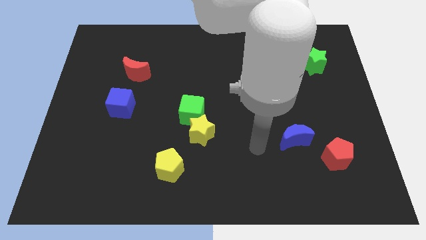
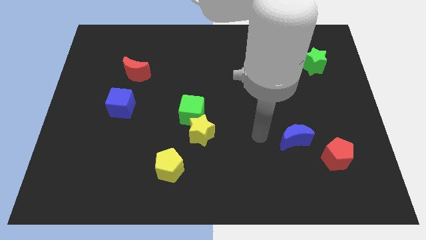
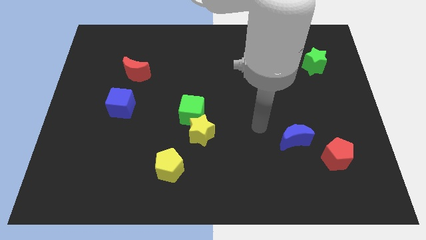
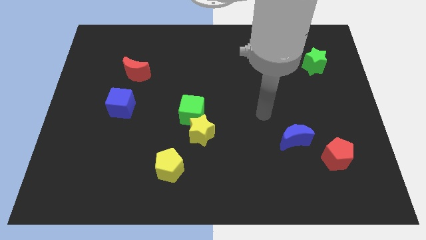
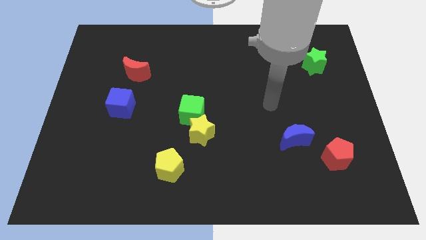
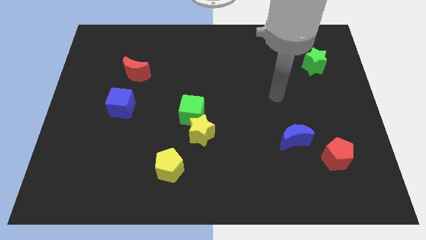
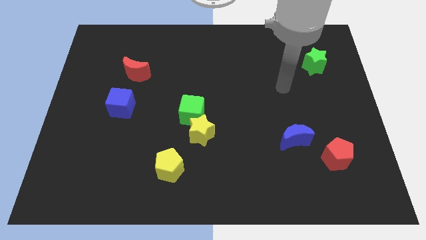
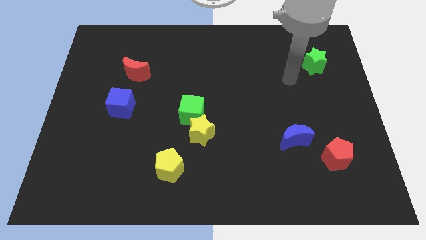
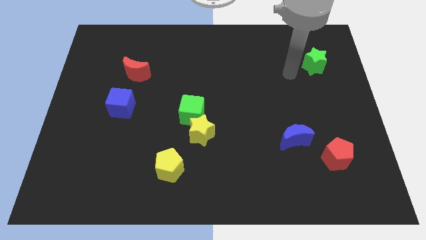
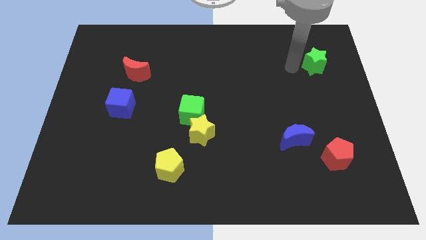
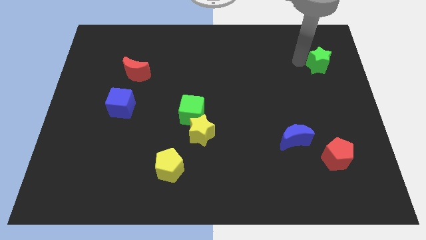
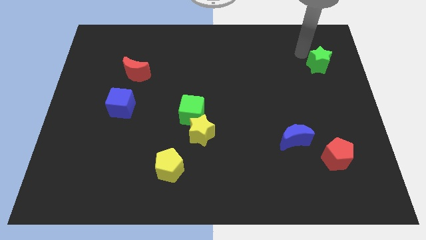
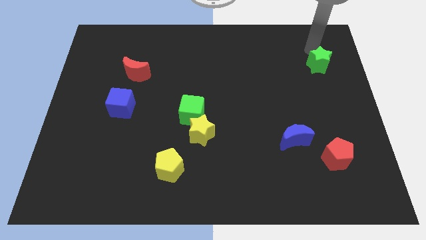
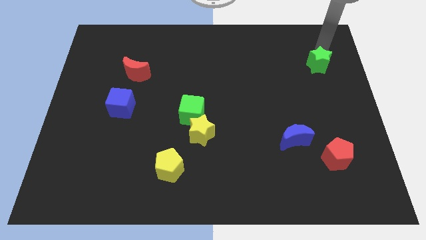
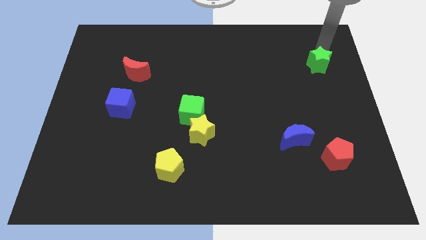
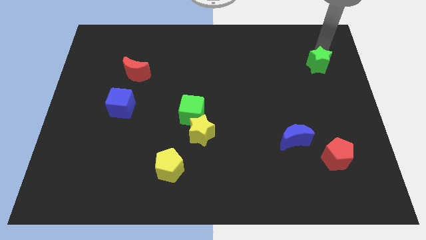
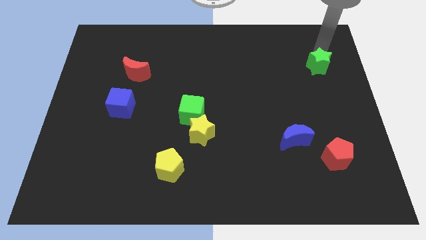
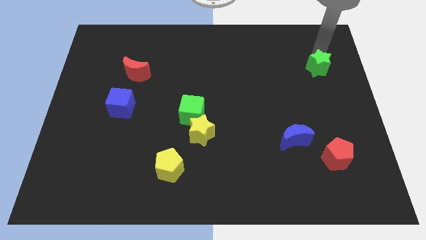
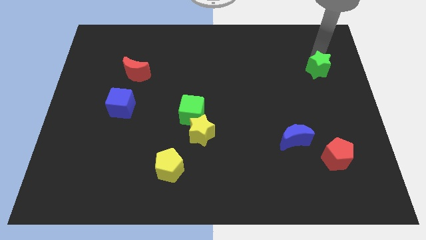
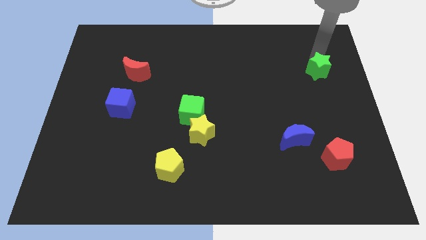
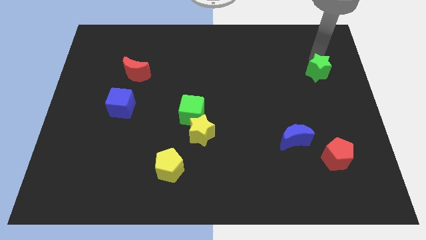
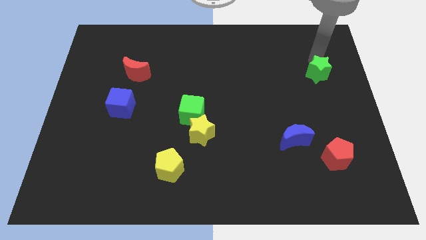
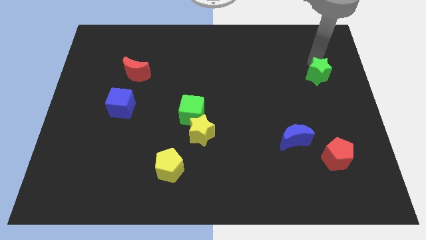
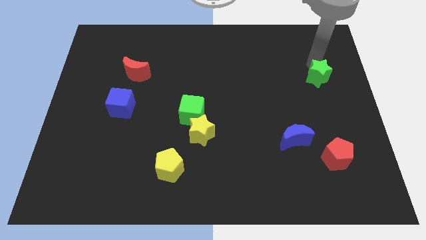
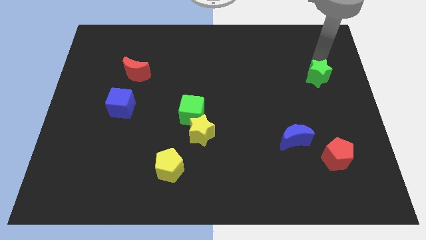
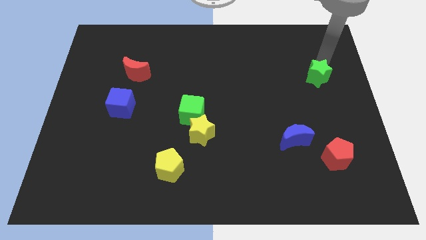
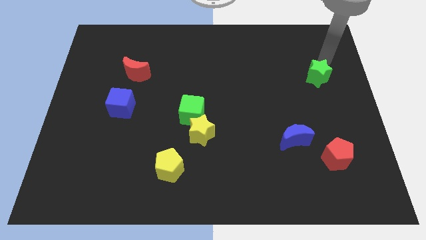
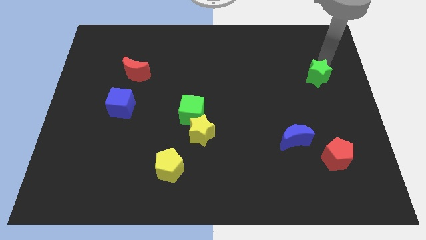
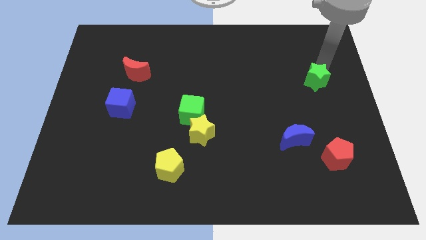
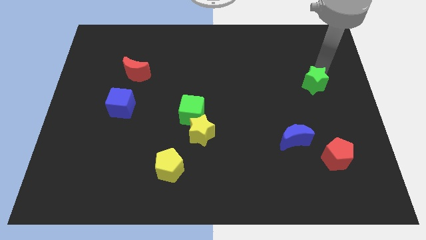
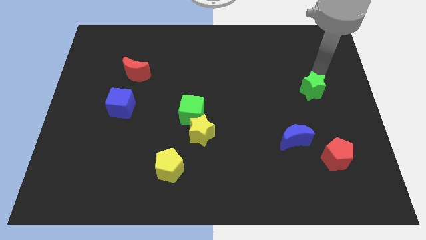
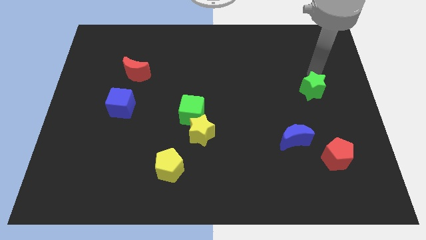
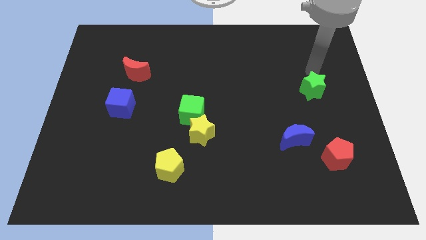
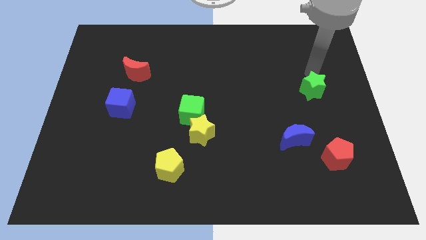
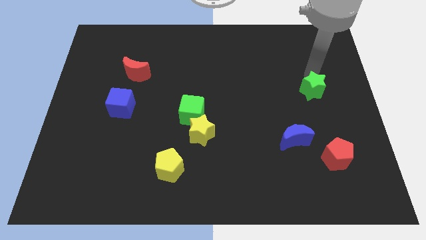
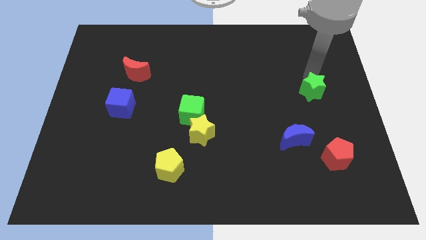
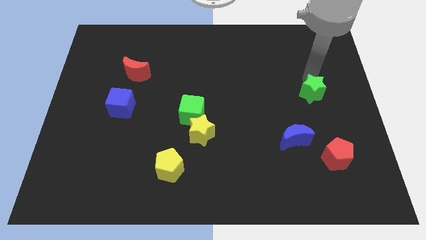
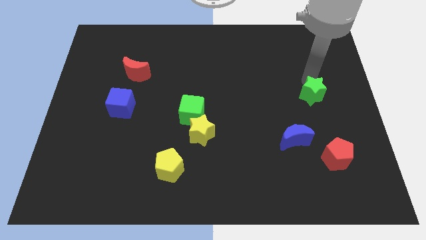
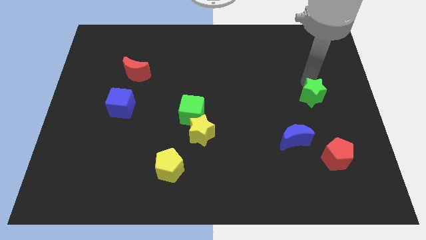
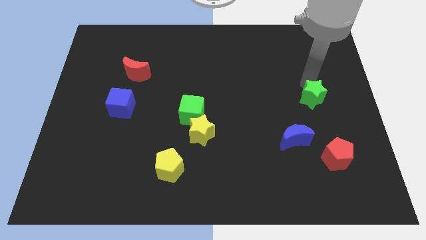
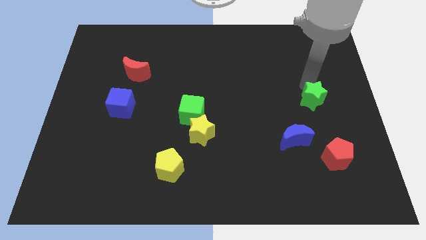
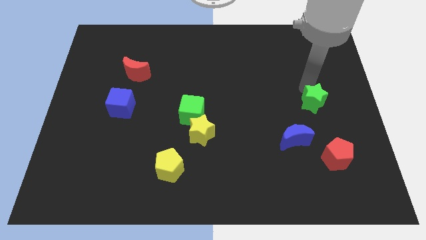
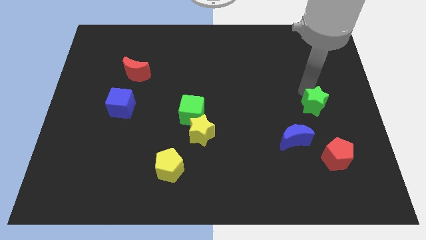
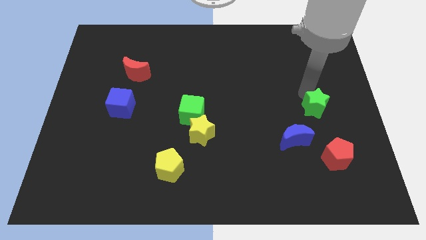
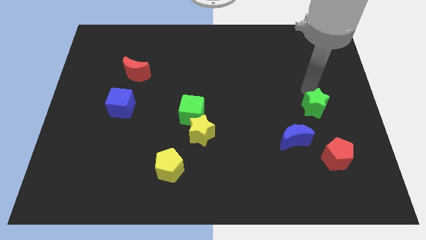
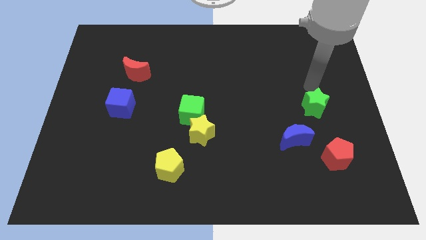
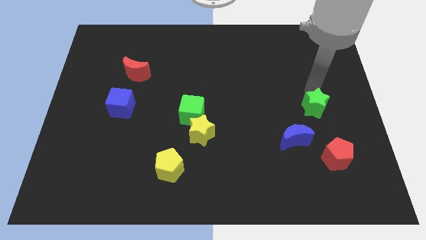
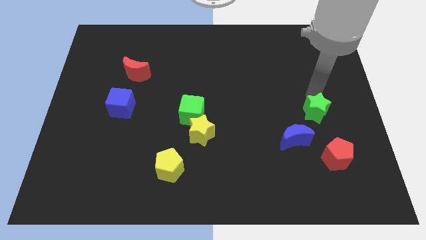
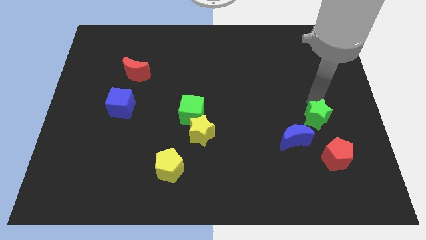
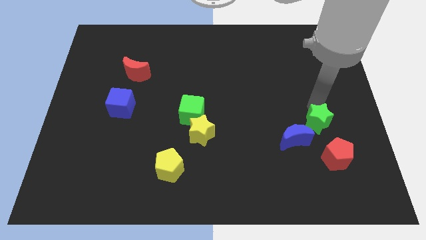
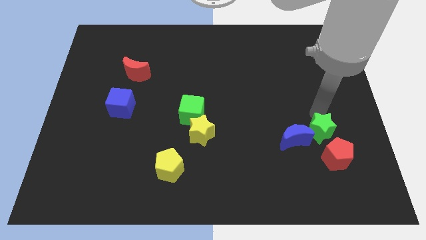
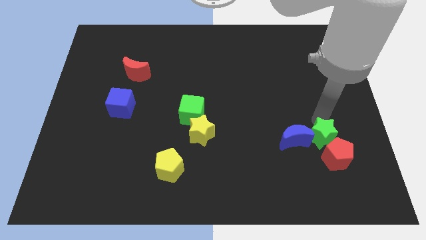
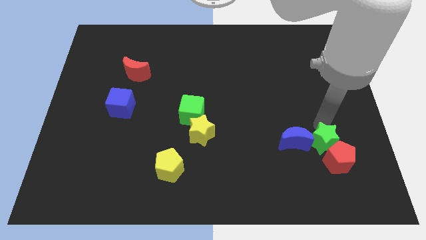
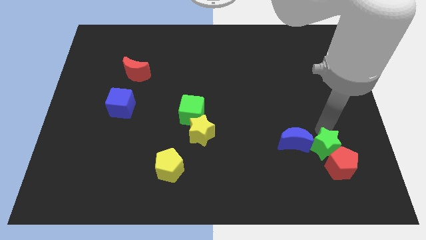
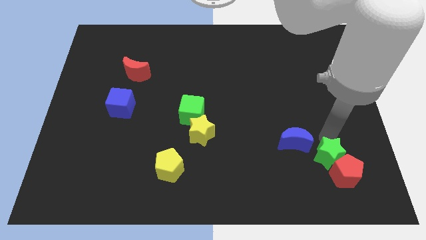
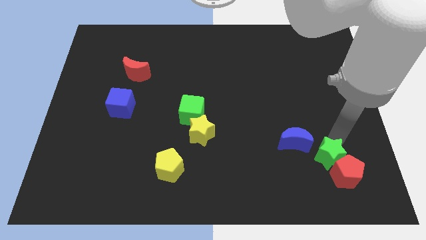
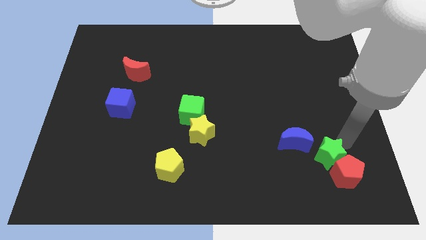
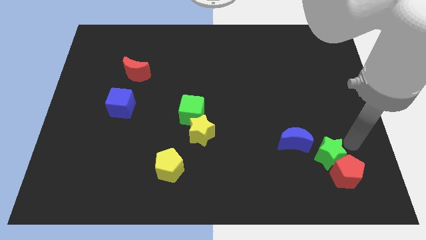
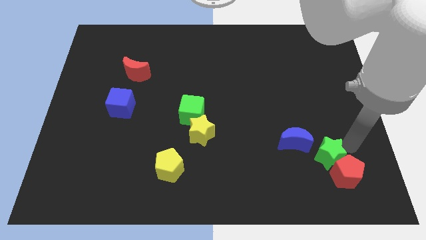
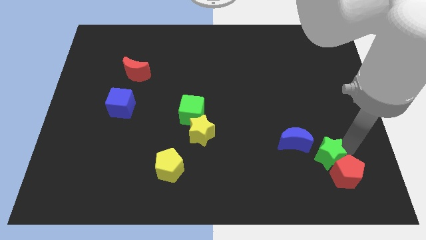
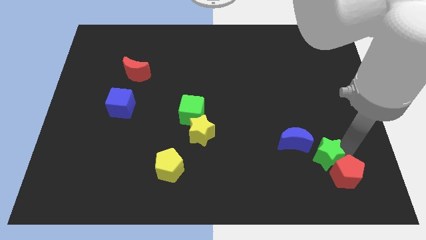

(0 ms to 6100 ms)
move the green star to the left of the red pentagon
